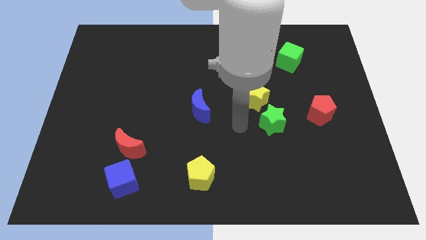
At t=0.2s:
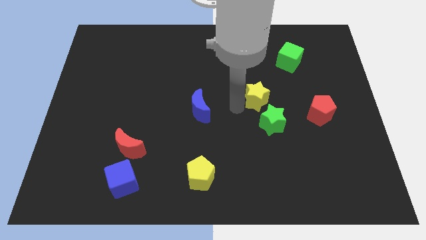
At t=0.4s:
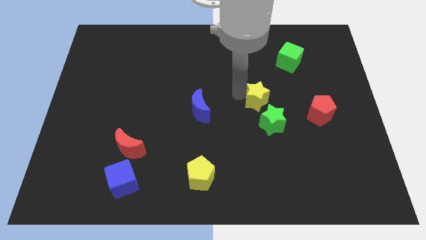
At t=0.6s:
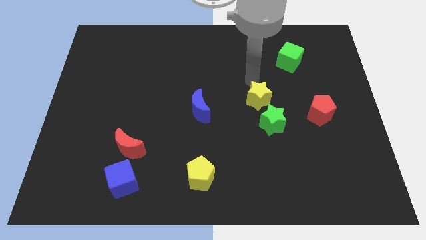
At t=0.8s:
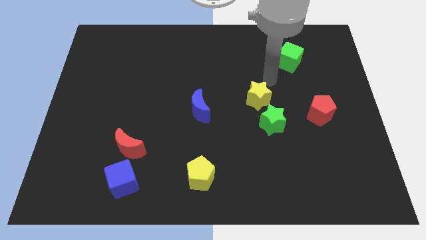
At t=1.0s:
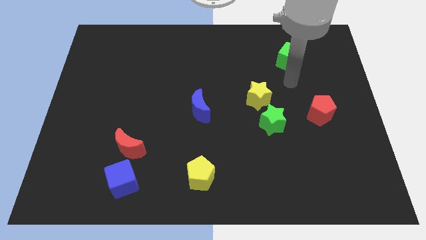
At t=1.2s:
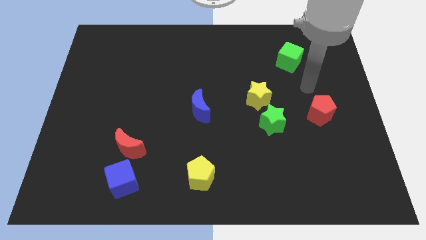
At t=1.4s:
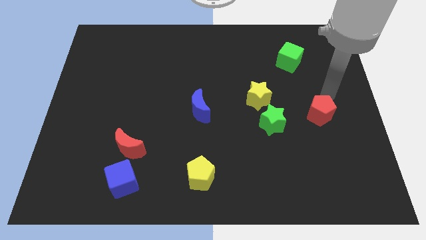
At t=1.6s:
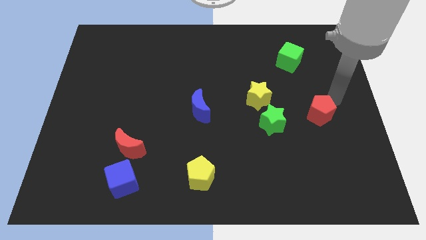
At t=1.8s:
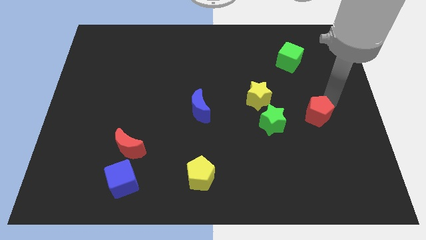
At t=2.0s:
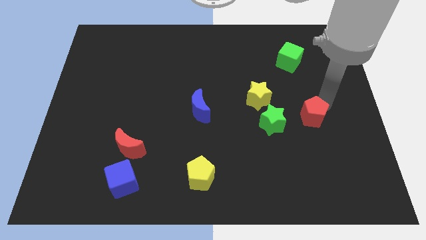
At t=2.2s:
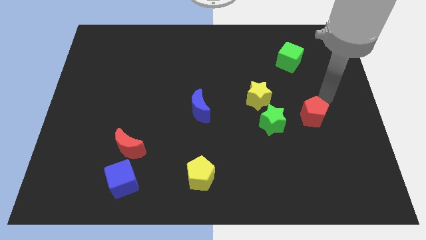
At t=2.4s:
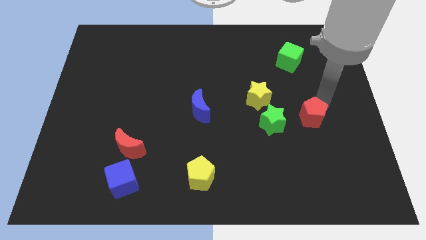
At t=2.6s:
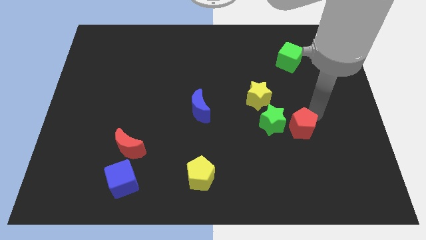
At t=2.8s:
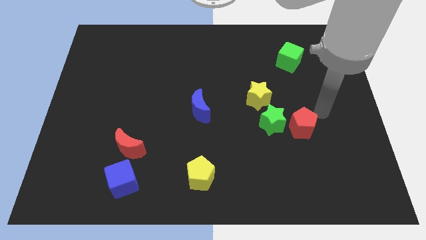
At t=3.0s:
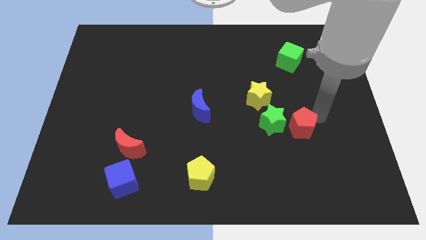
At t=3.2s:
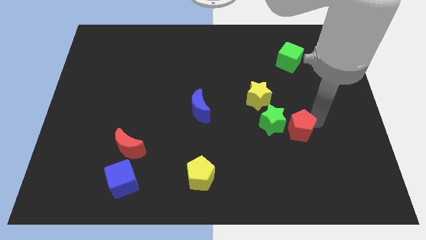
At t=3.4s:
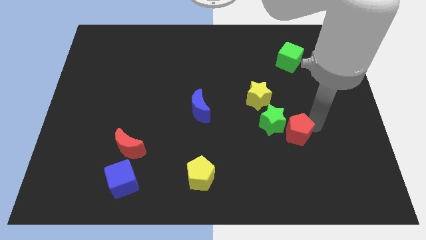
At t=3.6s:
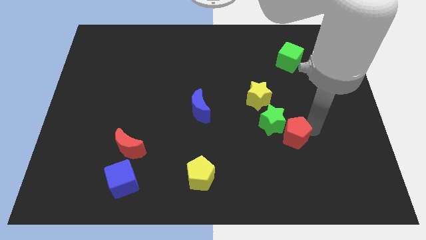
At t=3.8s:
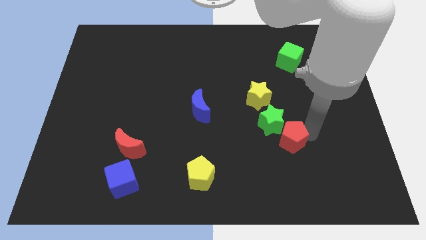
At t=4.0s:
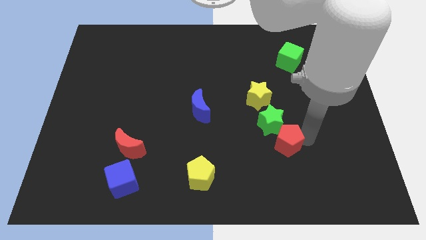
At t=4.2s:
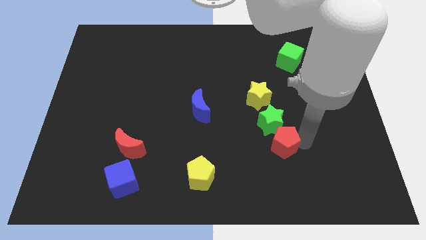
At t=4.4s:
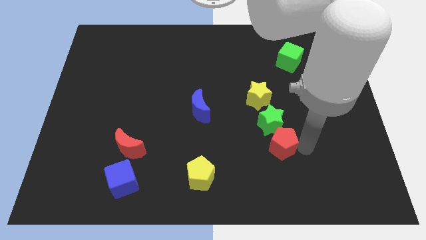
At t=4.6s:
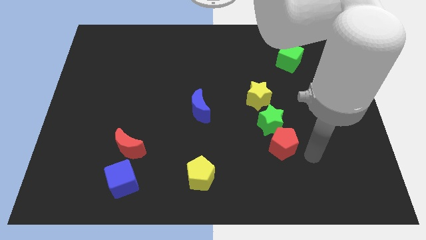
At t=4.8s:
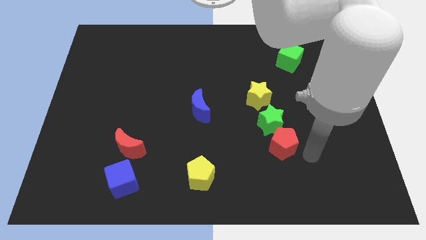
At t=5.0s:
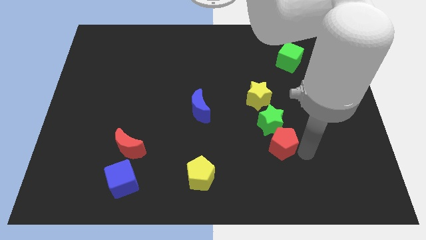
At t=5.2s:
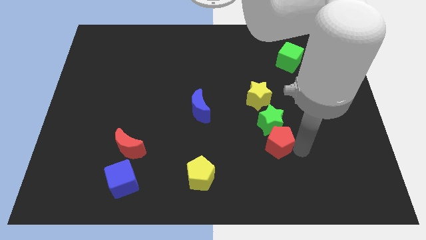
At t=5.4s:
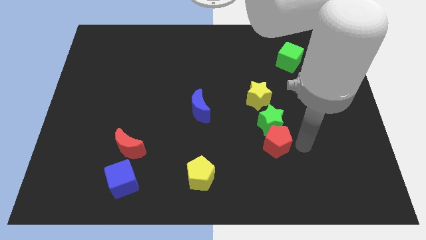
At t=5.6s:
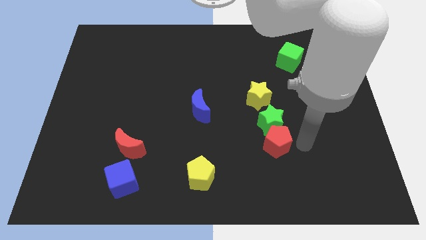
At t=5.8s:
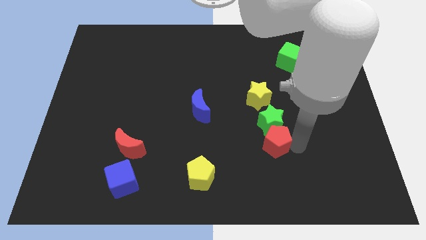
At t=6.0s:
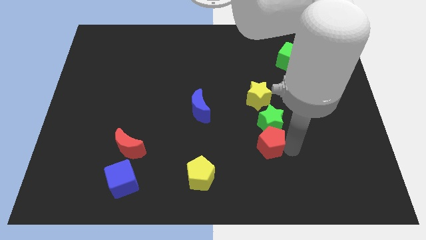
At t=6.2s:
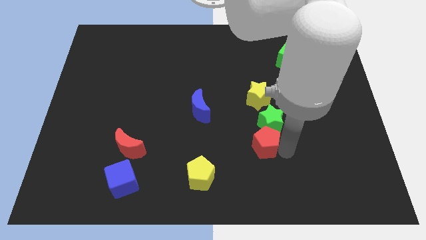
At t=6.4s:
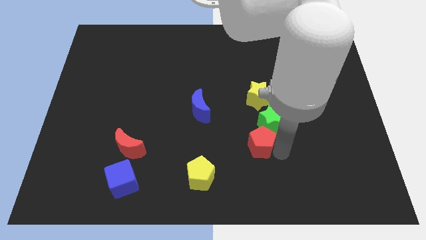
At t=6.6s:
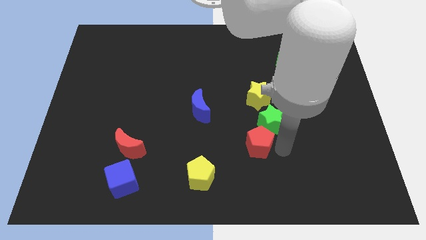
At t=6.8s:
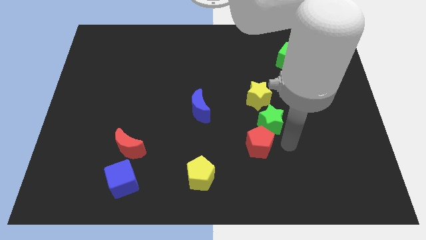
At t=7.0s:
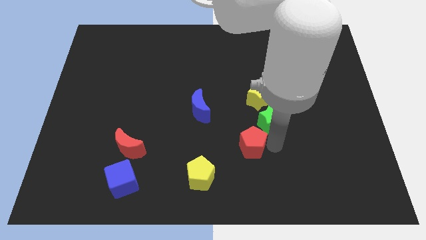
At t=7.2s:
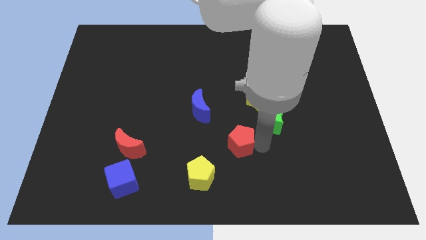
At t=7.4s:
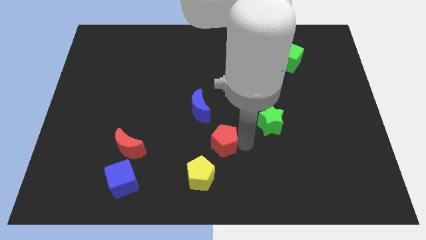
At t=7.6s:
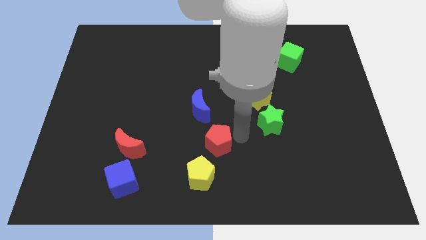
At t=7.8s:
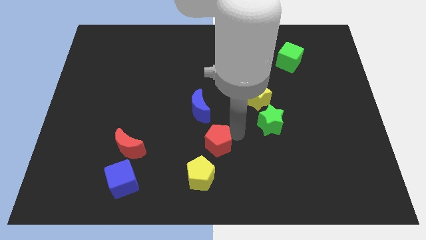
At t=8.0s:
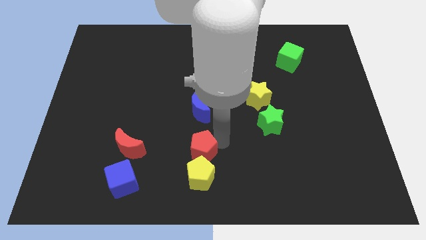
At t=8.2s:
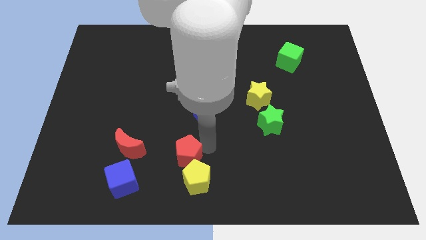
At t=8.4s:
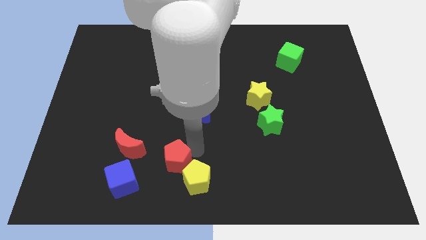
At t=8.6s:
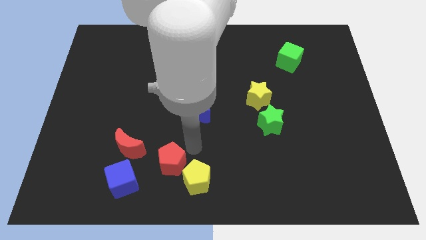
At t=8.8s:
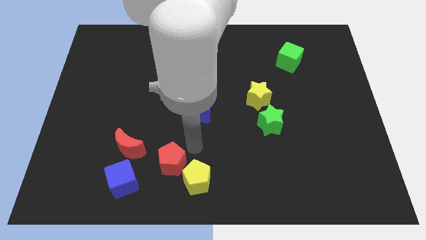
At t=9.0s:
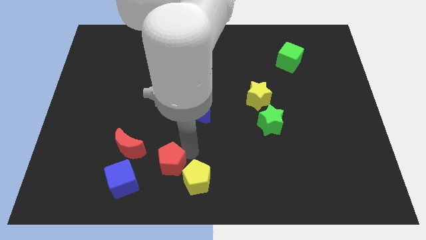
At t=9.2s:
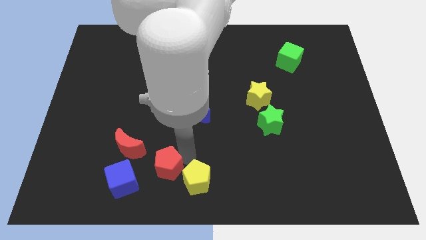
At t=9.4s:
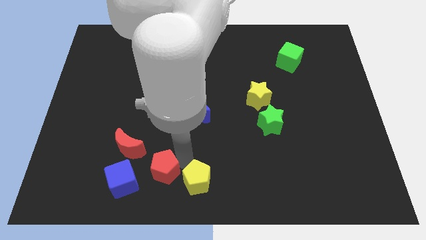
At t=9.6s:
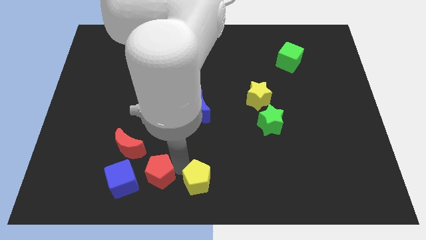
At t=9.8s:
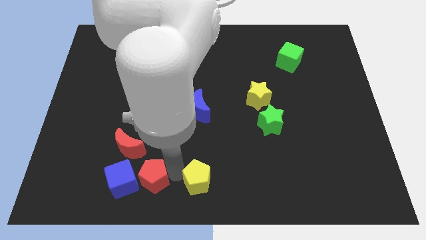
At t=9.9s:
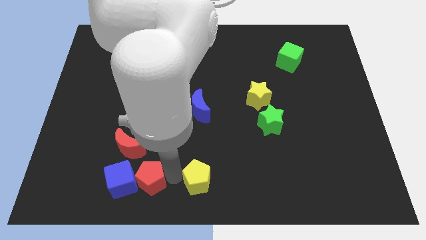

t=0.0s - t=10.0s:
move the red pentagon next to the blue cube

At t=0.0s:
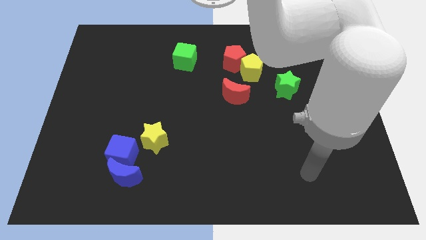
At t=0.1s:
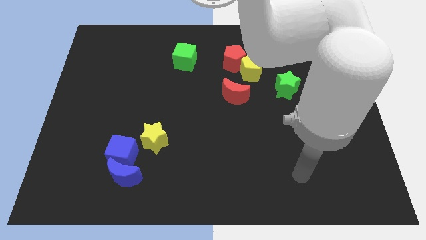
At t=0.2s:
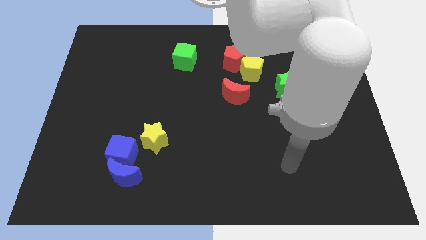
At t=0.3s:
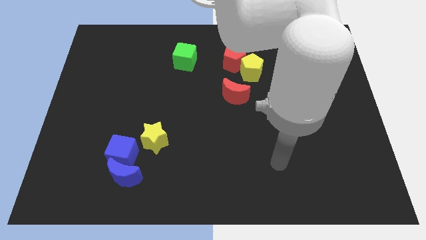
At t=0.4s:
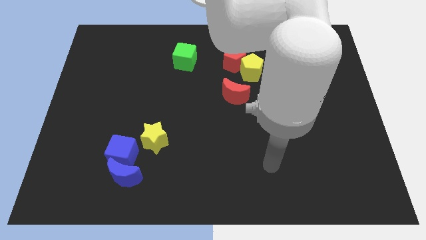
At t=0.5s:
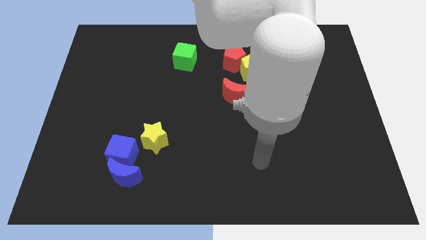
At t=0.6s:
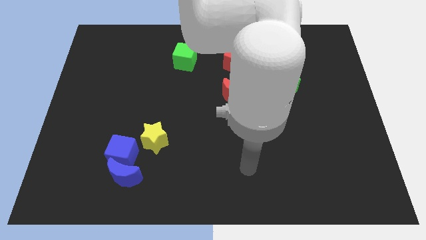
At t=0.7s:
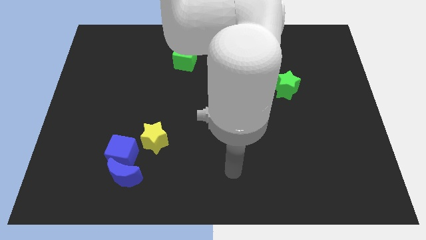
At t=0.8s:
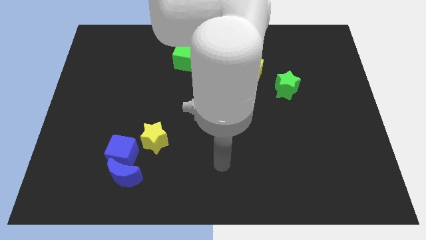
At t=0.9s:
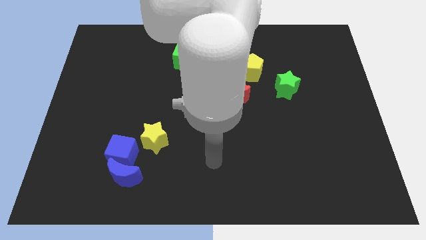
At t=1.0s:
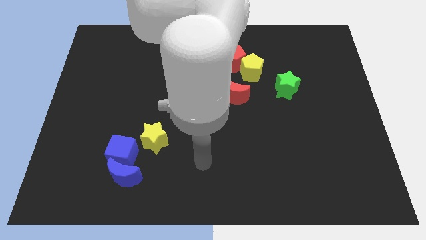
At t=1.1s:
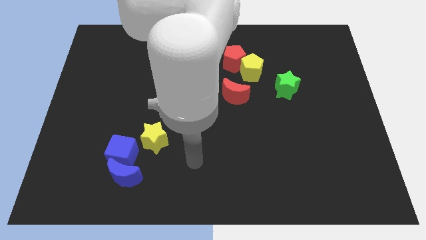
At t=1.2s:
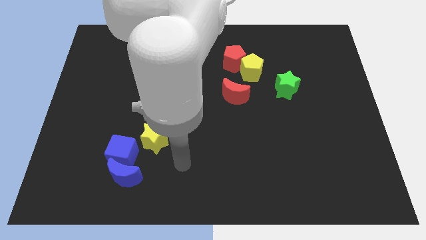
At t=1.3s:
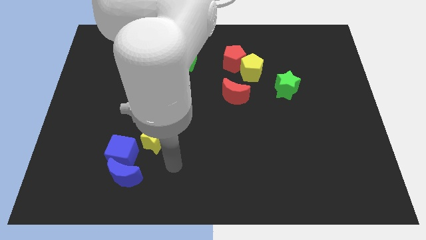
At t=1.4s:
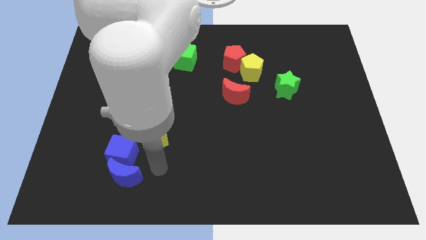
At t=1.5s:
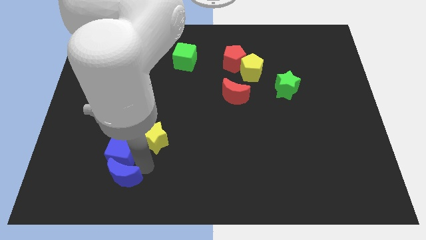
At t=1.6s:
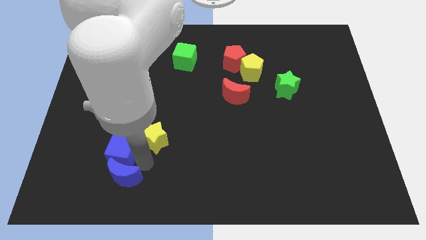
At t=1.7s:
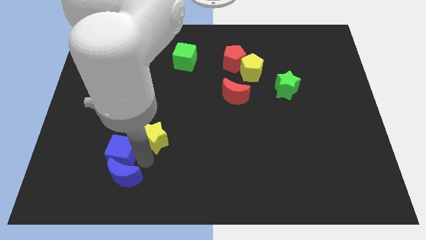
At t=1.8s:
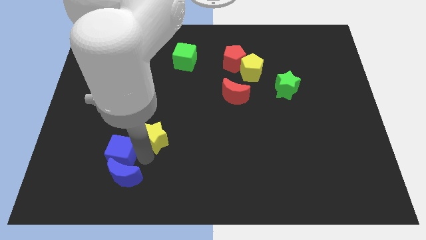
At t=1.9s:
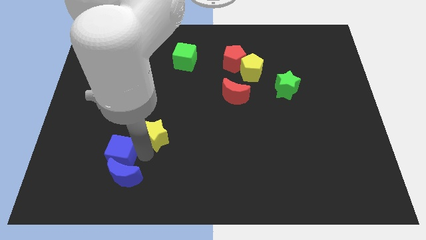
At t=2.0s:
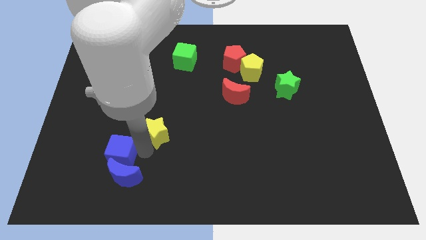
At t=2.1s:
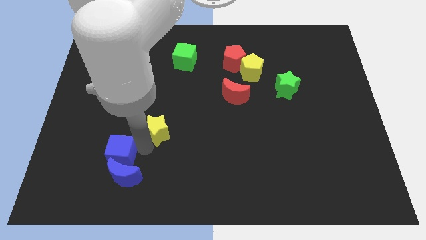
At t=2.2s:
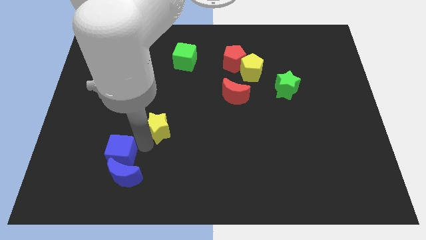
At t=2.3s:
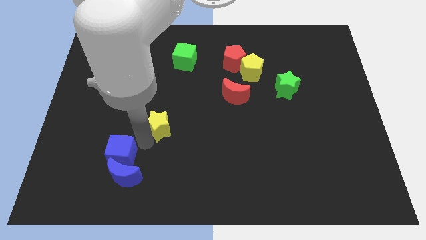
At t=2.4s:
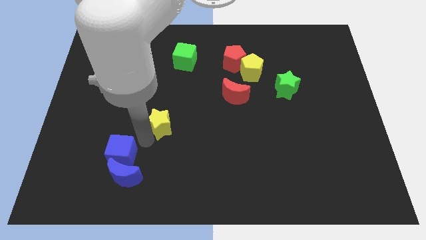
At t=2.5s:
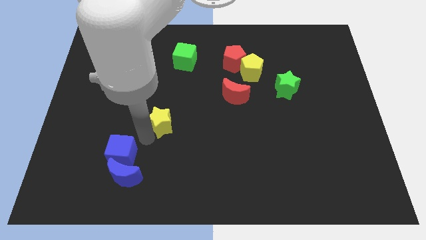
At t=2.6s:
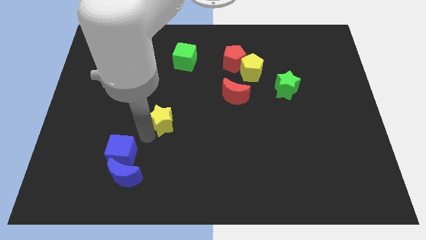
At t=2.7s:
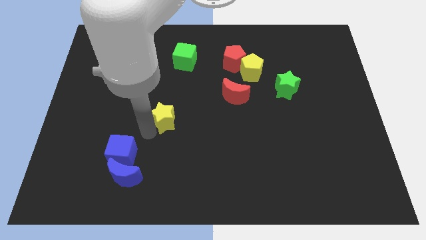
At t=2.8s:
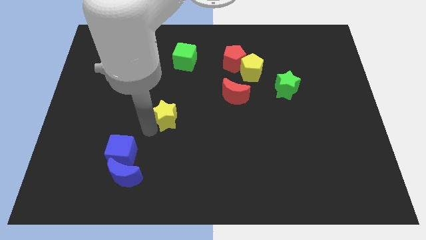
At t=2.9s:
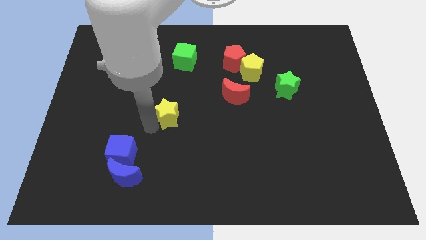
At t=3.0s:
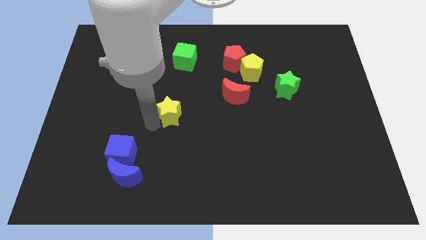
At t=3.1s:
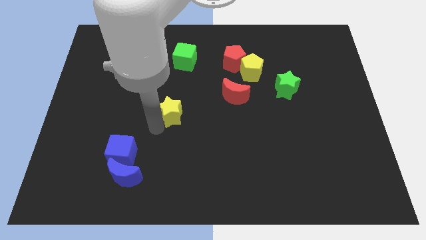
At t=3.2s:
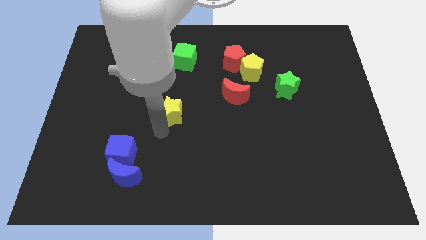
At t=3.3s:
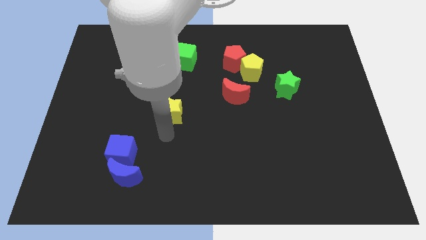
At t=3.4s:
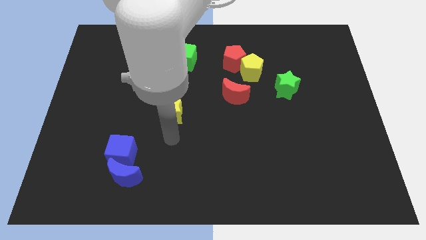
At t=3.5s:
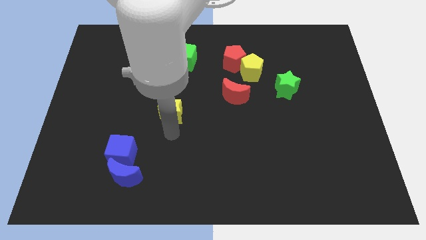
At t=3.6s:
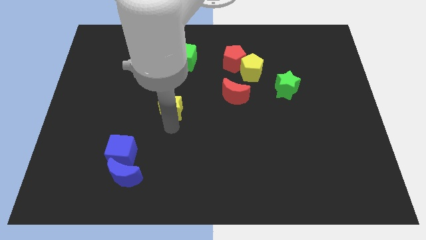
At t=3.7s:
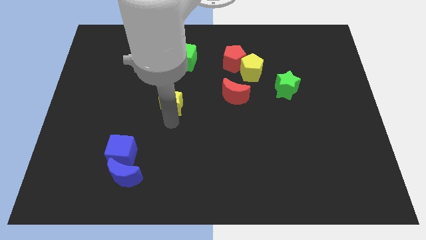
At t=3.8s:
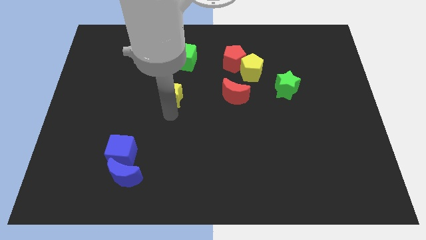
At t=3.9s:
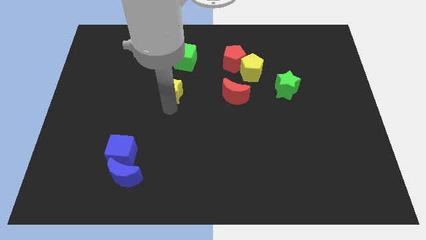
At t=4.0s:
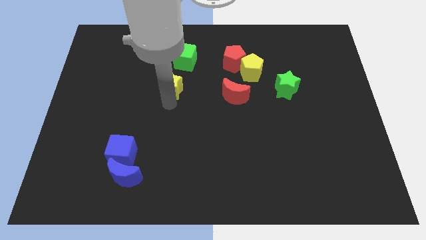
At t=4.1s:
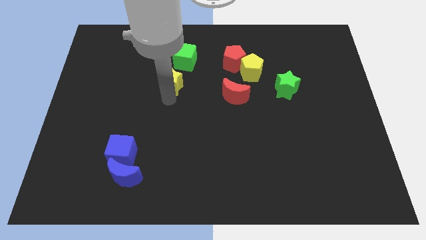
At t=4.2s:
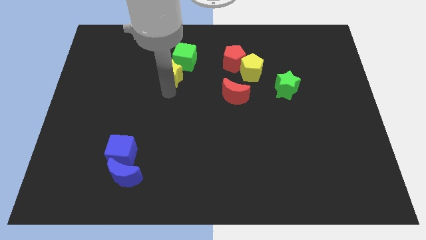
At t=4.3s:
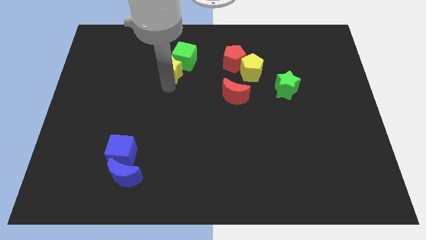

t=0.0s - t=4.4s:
slide the yellow star next to the green cube
